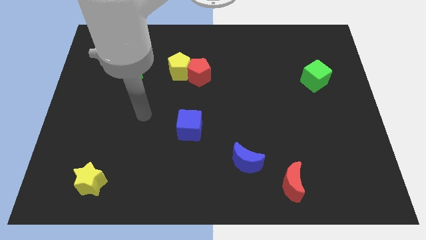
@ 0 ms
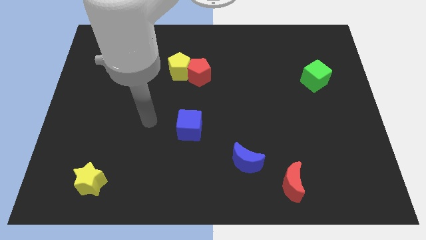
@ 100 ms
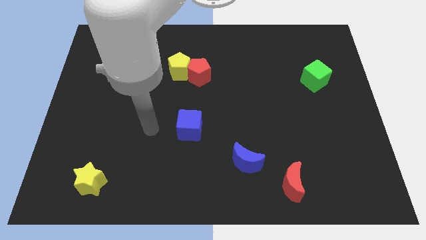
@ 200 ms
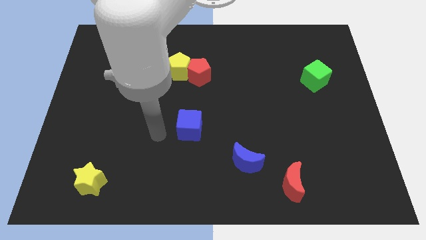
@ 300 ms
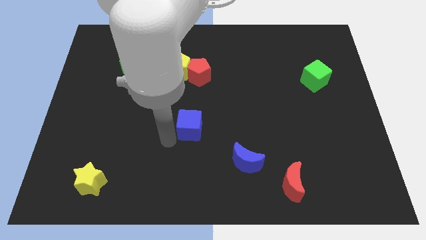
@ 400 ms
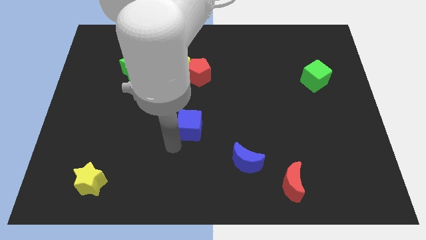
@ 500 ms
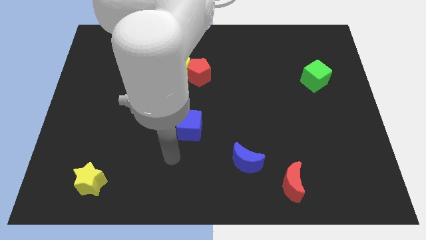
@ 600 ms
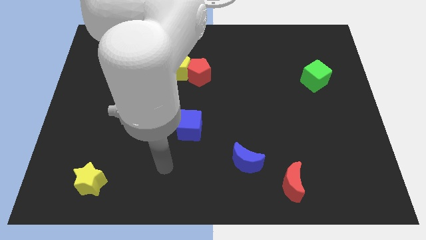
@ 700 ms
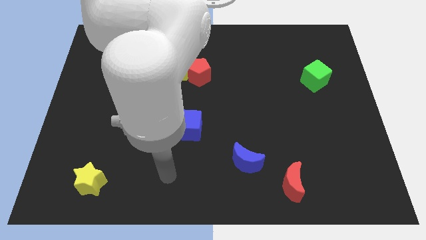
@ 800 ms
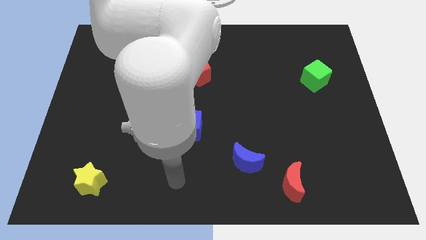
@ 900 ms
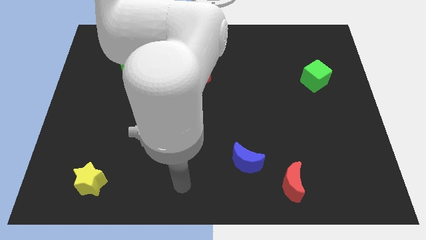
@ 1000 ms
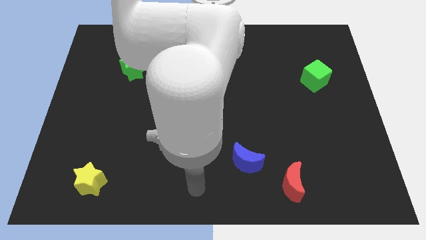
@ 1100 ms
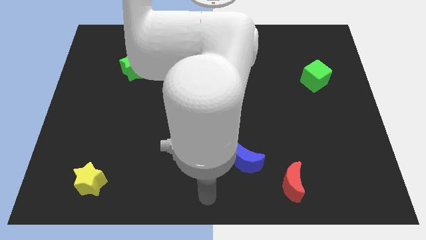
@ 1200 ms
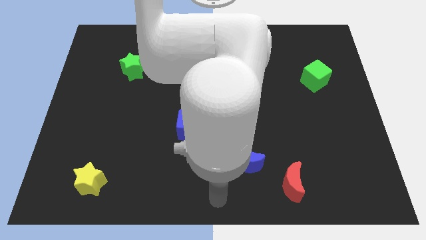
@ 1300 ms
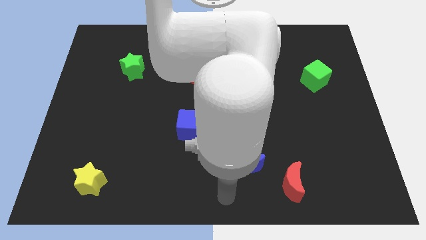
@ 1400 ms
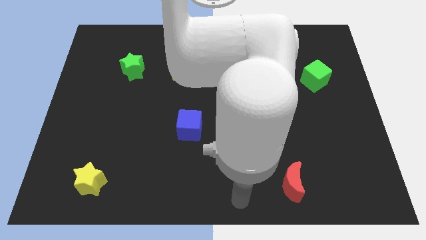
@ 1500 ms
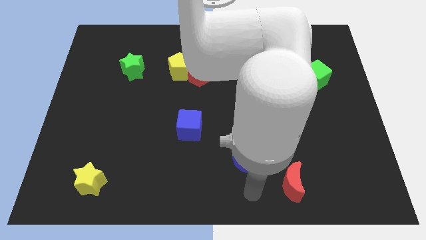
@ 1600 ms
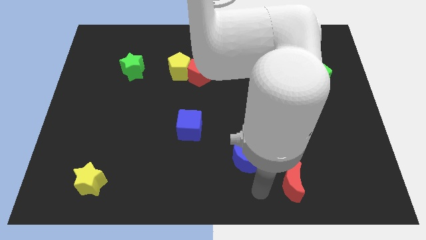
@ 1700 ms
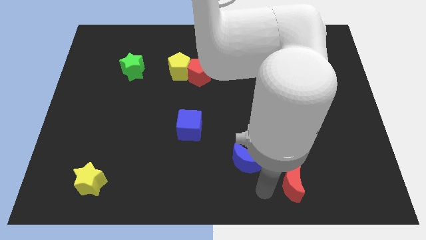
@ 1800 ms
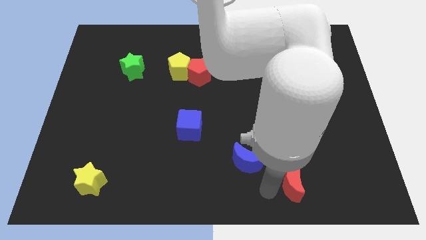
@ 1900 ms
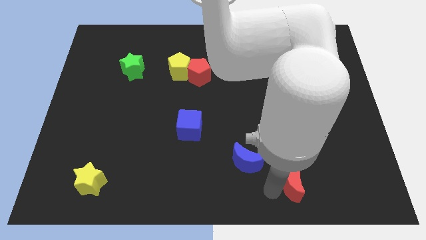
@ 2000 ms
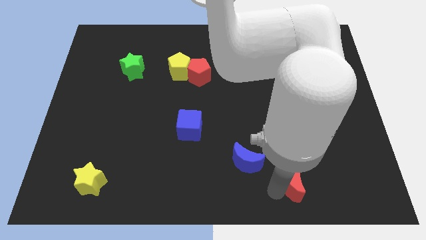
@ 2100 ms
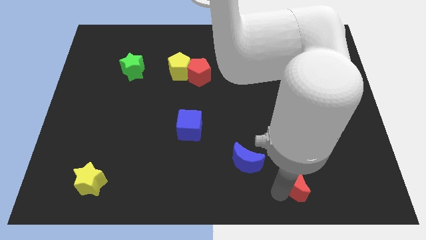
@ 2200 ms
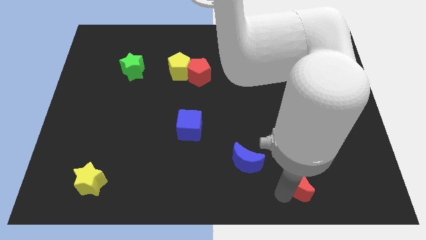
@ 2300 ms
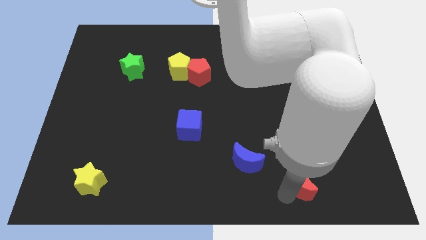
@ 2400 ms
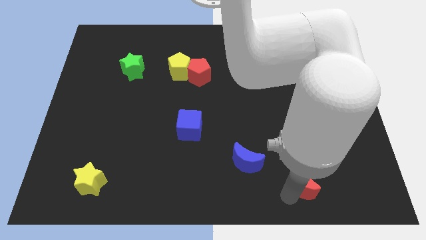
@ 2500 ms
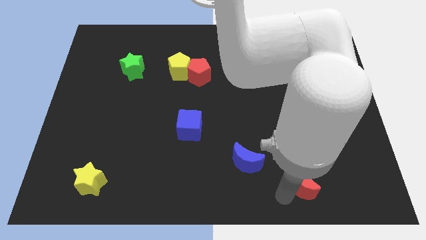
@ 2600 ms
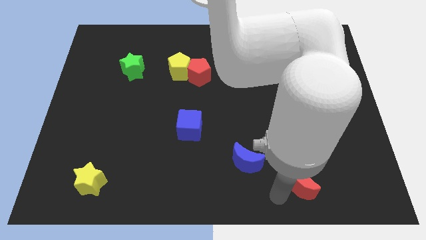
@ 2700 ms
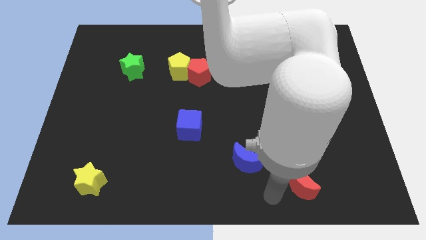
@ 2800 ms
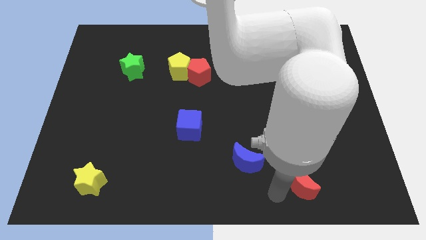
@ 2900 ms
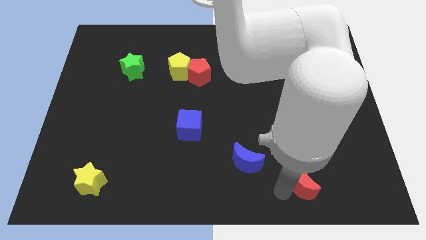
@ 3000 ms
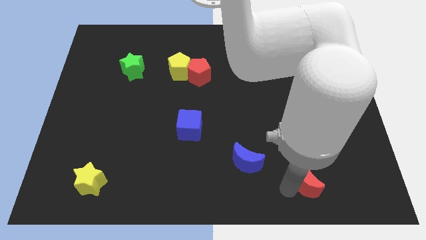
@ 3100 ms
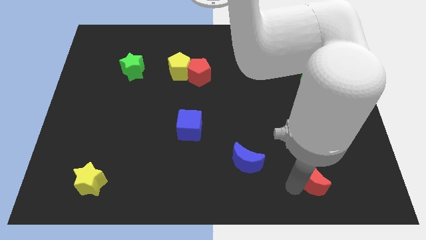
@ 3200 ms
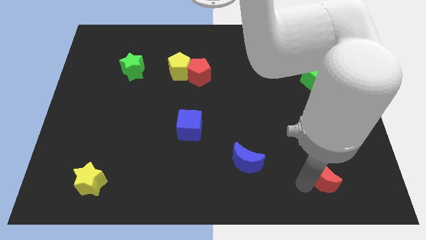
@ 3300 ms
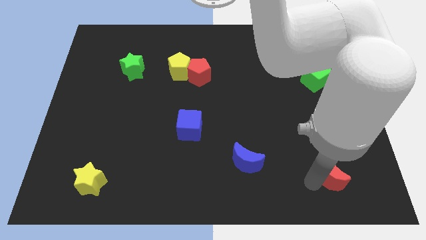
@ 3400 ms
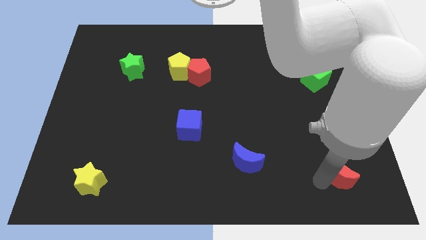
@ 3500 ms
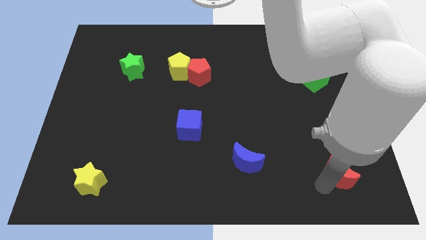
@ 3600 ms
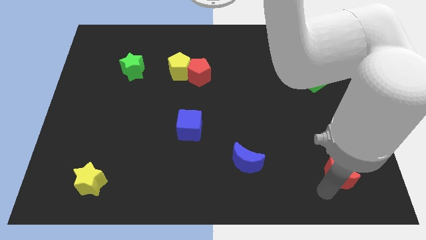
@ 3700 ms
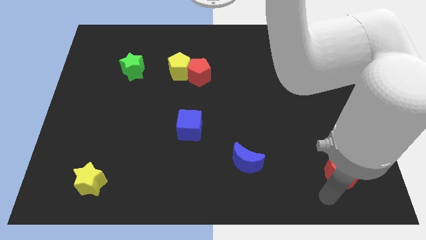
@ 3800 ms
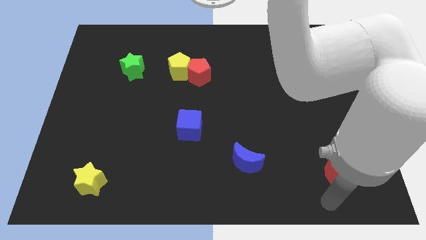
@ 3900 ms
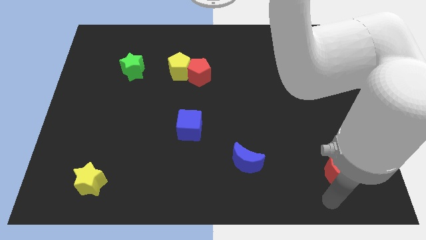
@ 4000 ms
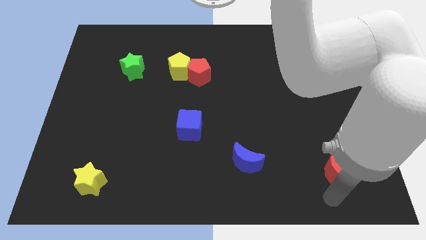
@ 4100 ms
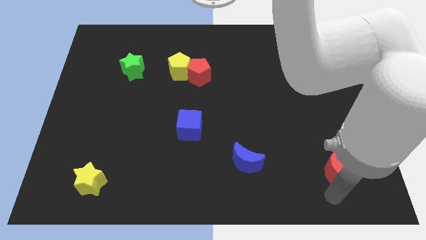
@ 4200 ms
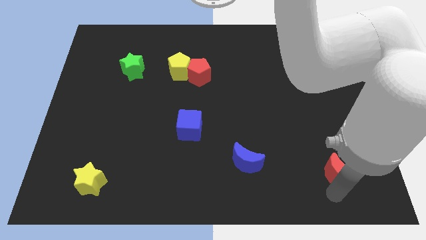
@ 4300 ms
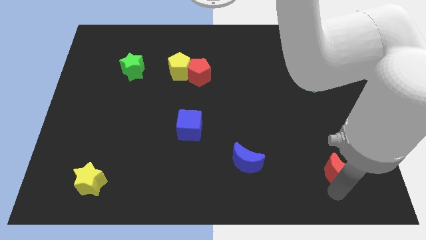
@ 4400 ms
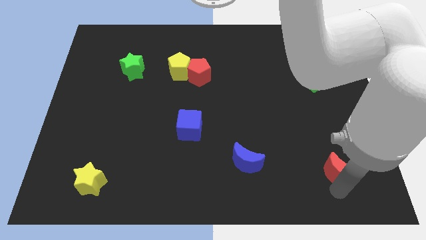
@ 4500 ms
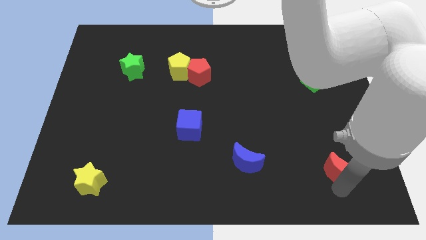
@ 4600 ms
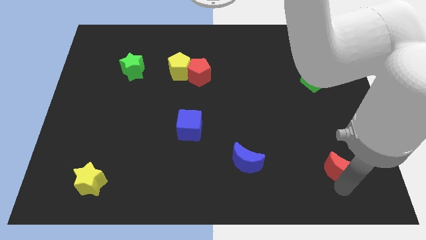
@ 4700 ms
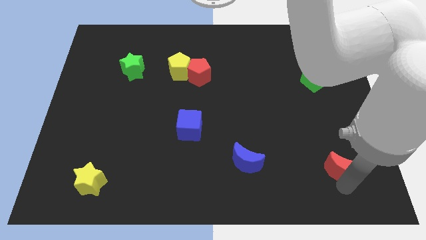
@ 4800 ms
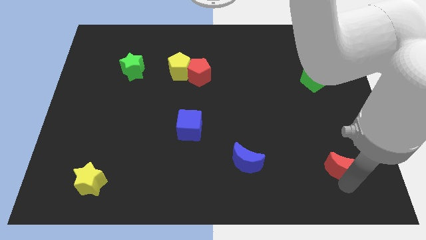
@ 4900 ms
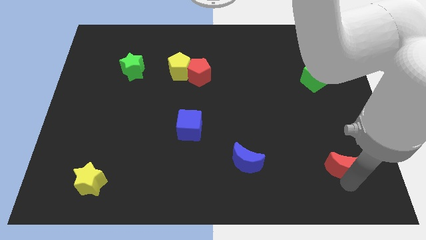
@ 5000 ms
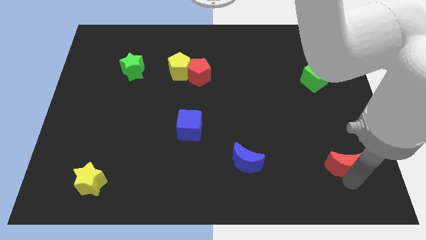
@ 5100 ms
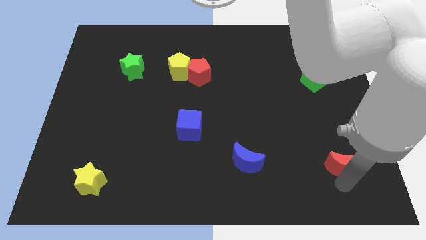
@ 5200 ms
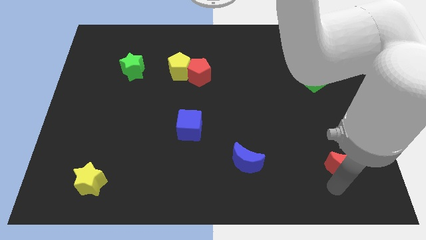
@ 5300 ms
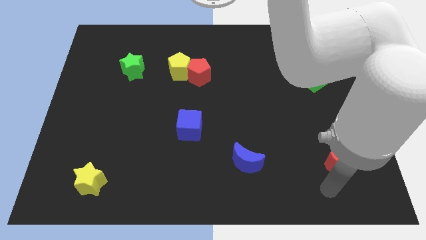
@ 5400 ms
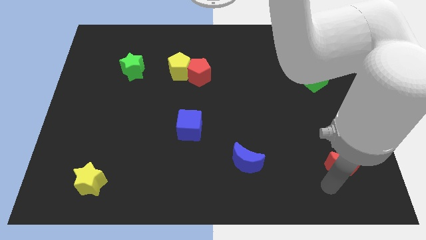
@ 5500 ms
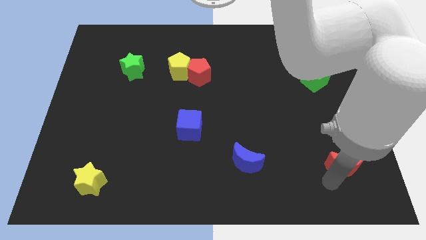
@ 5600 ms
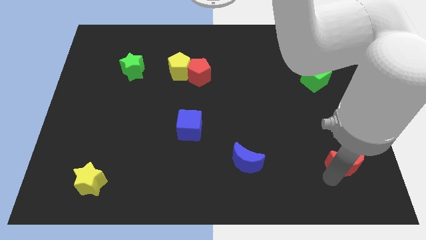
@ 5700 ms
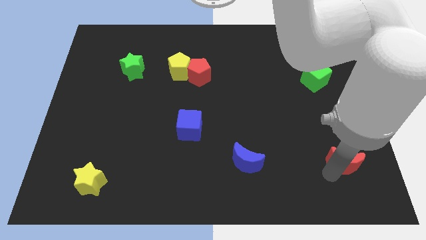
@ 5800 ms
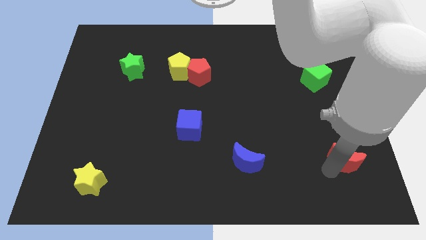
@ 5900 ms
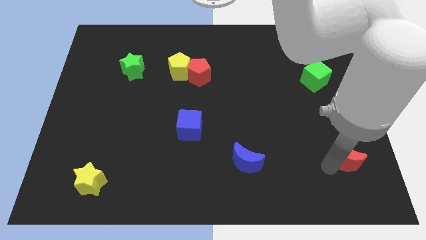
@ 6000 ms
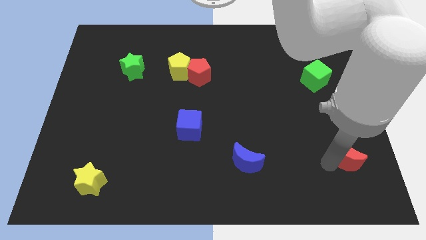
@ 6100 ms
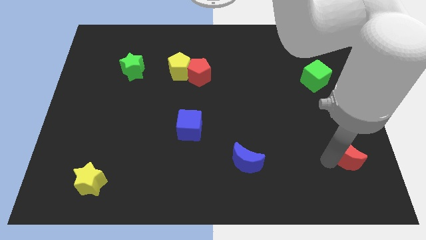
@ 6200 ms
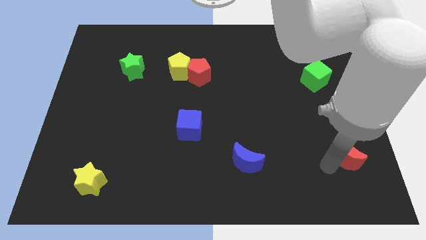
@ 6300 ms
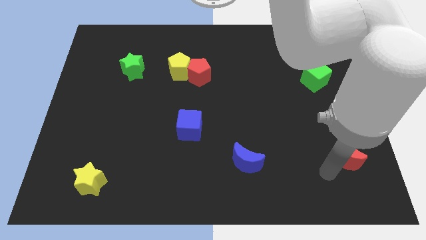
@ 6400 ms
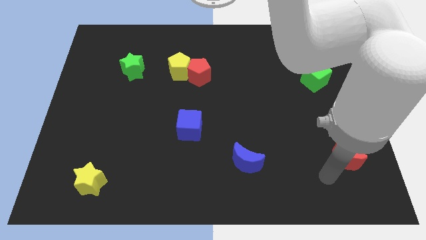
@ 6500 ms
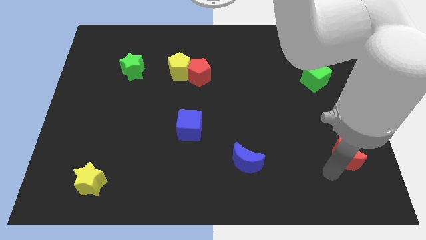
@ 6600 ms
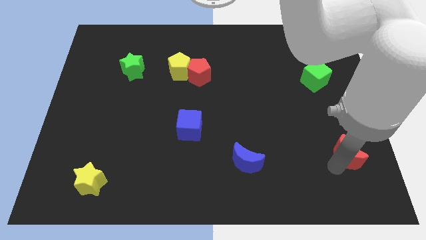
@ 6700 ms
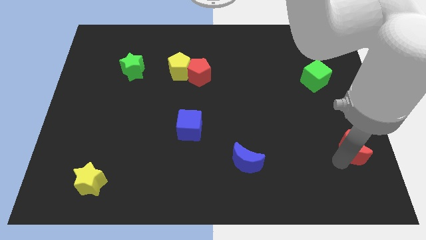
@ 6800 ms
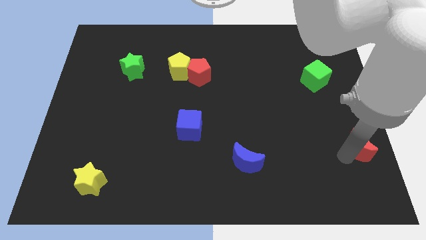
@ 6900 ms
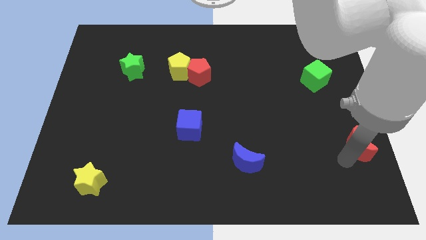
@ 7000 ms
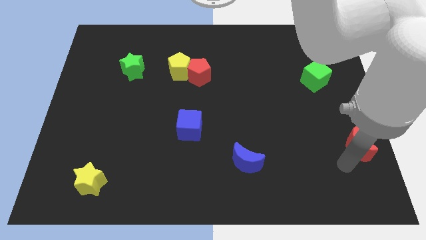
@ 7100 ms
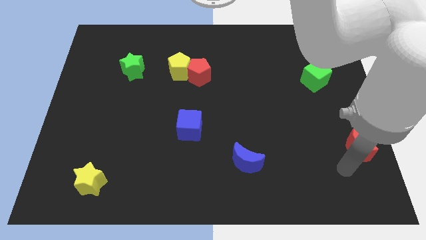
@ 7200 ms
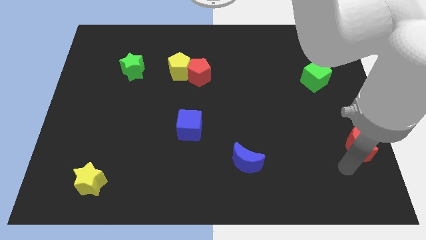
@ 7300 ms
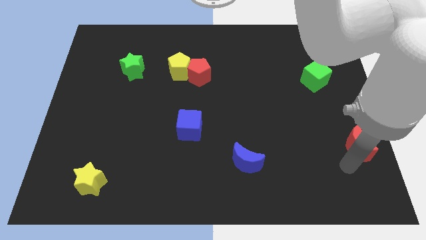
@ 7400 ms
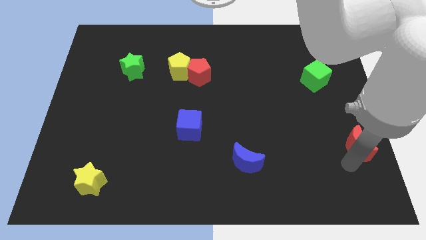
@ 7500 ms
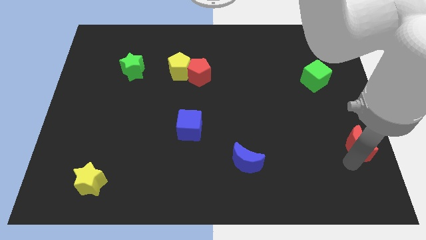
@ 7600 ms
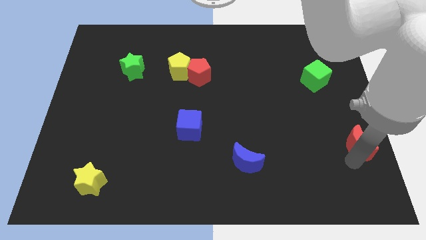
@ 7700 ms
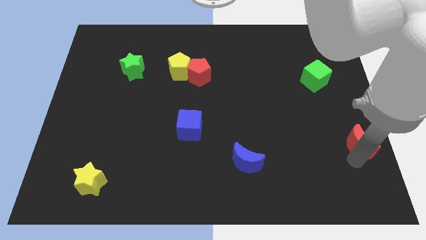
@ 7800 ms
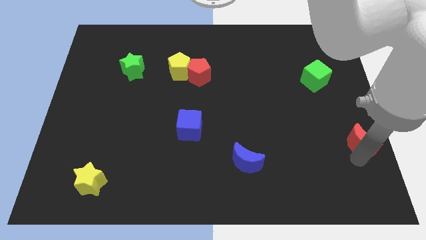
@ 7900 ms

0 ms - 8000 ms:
move the red moon to the right side
